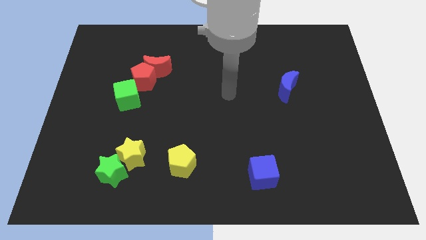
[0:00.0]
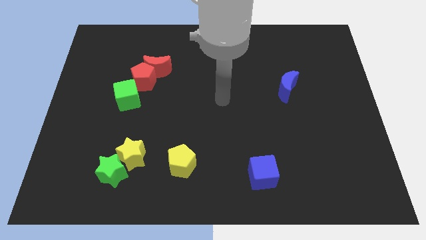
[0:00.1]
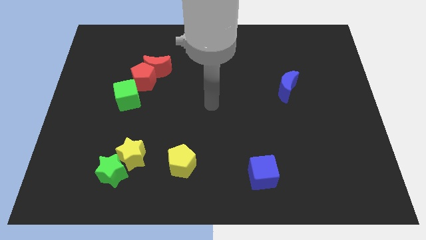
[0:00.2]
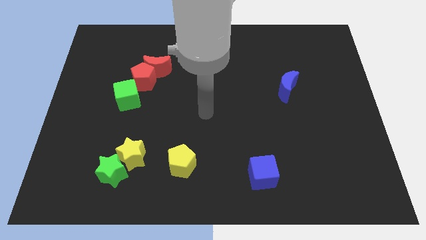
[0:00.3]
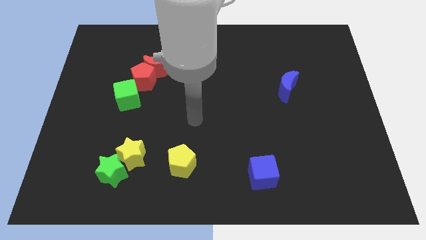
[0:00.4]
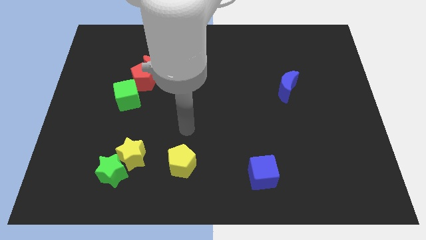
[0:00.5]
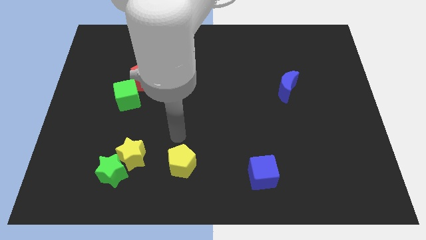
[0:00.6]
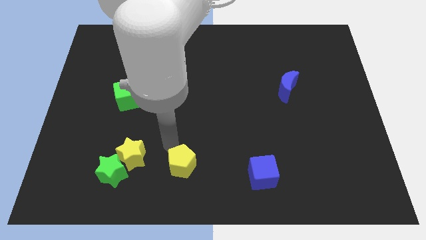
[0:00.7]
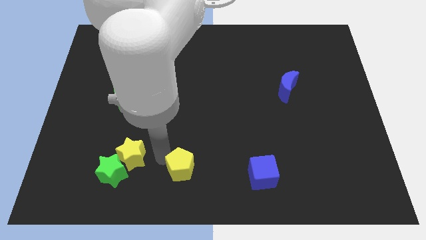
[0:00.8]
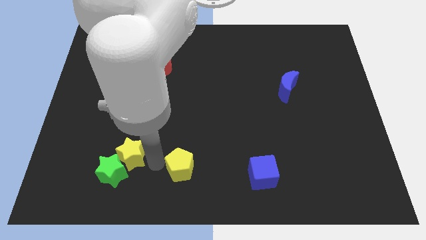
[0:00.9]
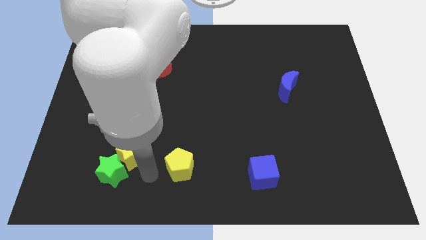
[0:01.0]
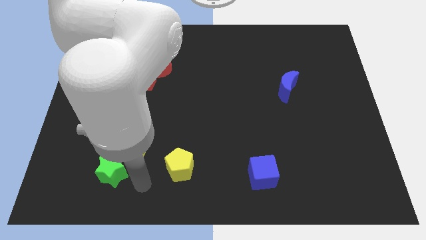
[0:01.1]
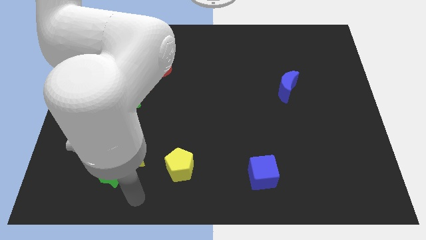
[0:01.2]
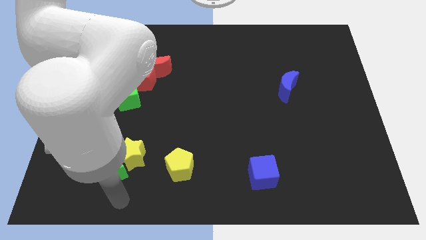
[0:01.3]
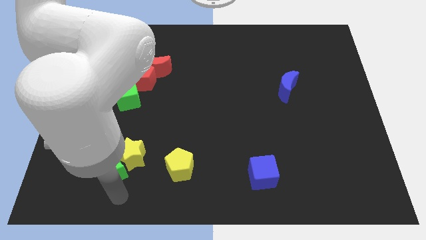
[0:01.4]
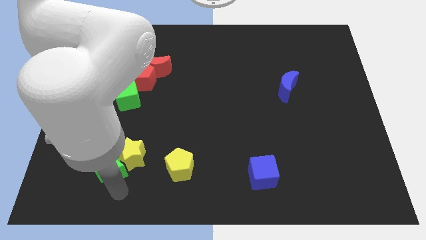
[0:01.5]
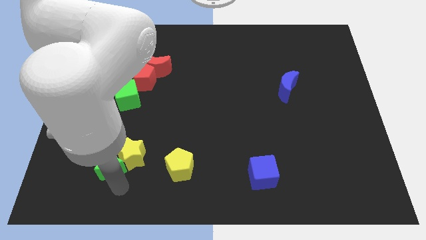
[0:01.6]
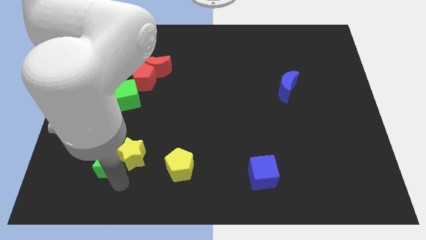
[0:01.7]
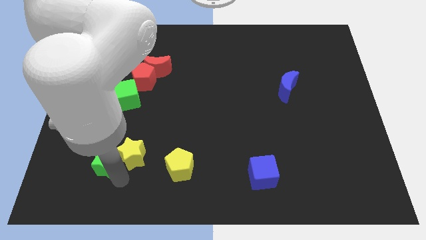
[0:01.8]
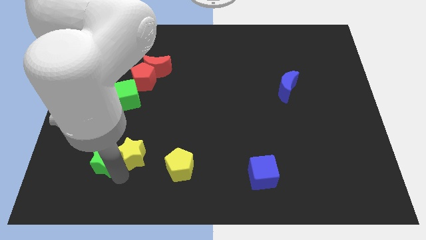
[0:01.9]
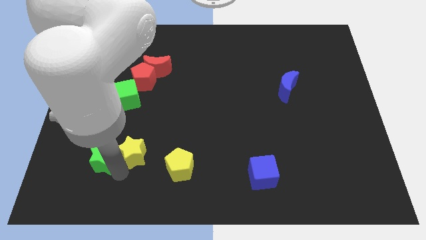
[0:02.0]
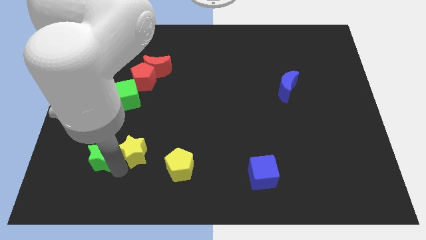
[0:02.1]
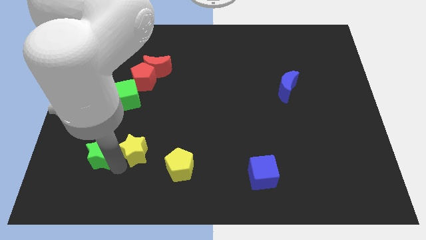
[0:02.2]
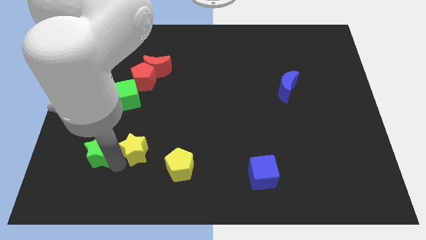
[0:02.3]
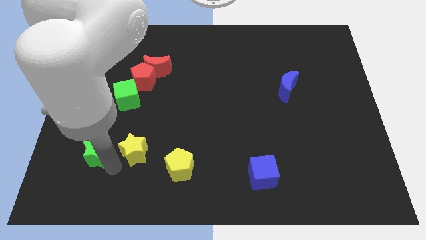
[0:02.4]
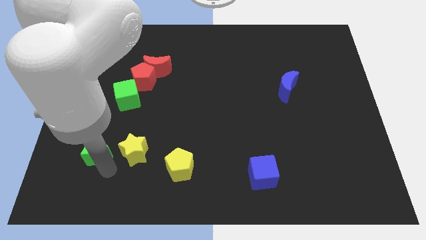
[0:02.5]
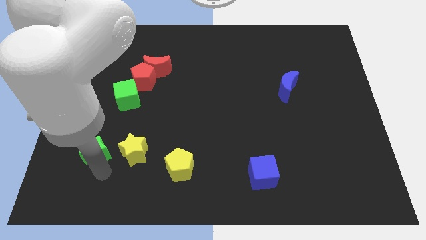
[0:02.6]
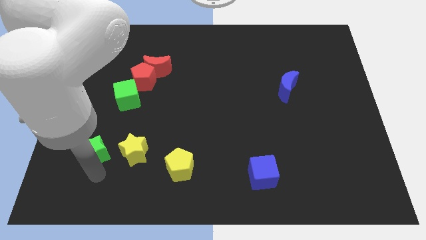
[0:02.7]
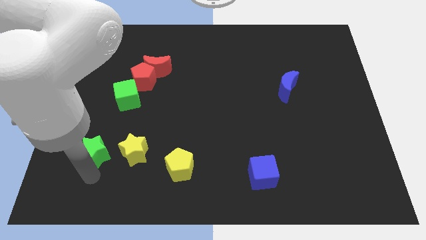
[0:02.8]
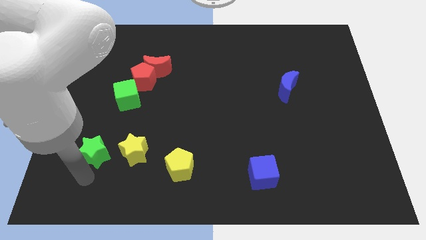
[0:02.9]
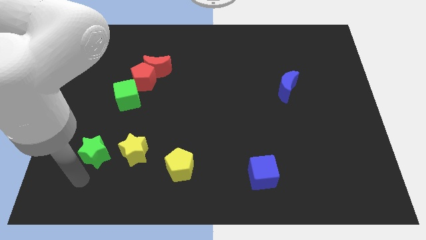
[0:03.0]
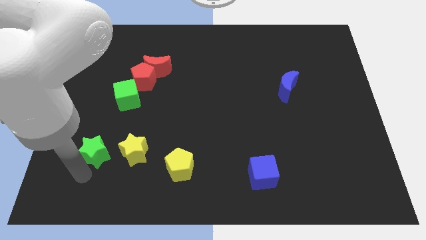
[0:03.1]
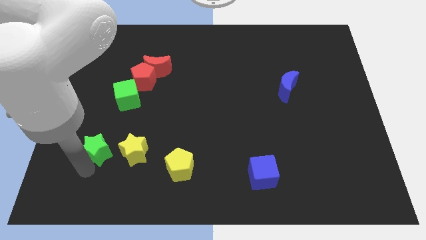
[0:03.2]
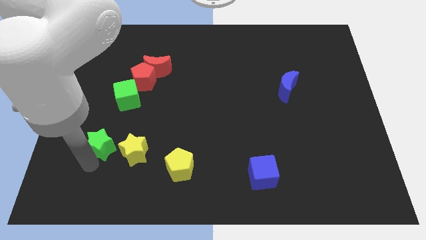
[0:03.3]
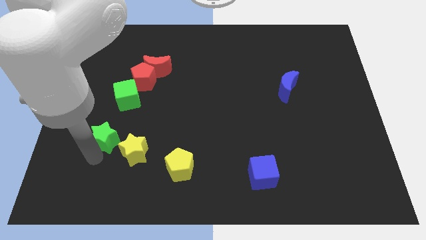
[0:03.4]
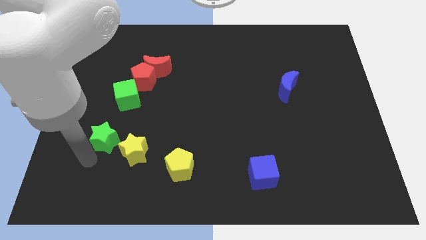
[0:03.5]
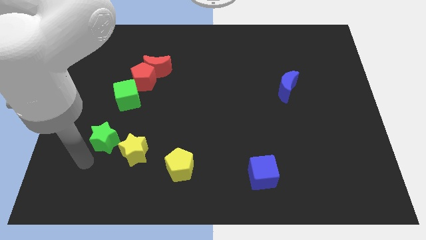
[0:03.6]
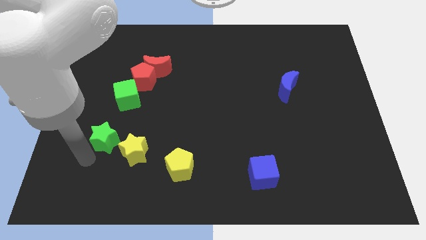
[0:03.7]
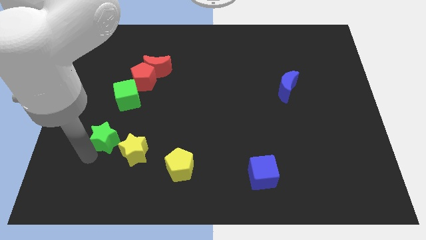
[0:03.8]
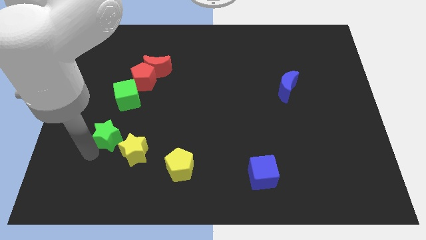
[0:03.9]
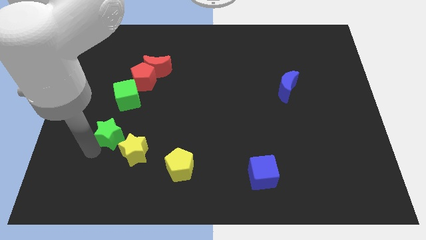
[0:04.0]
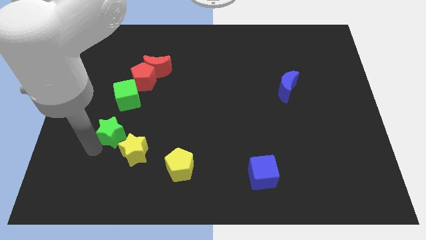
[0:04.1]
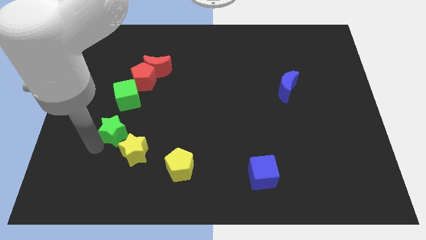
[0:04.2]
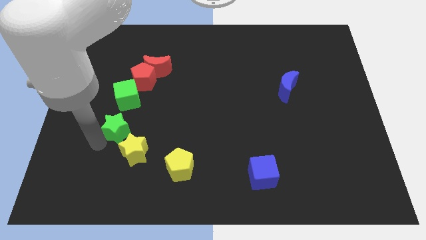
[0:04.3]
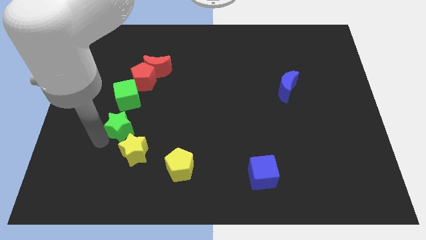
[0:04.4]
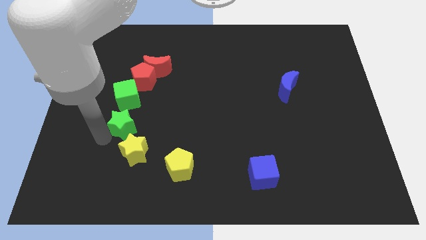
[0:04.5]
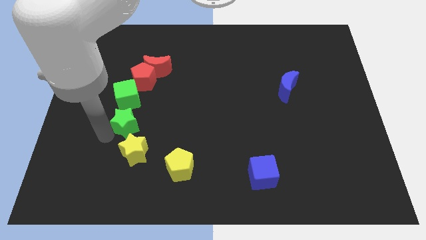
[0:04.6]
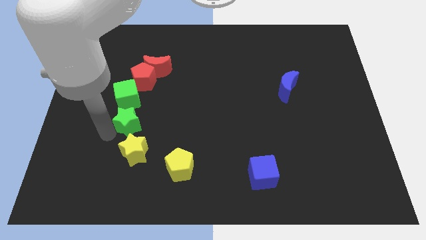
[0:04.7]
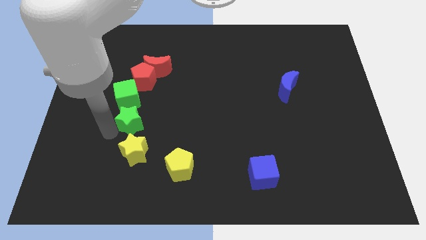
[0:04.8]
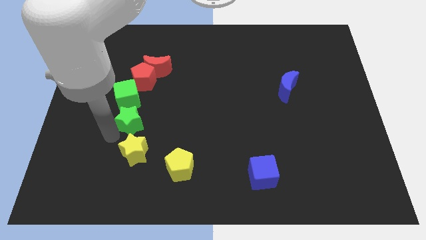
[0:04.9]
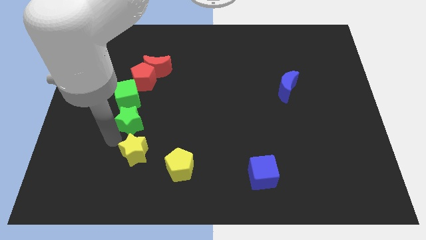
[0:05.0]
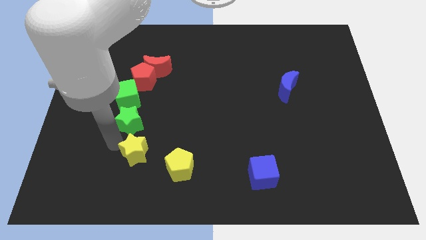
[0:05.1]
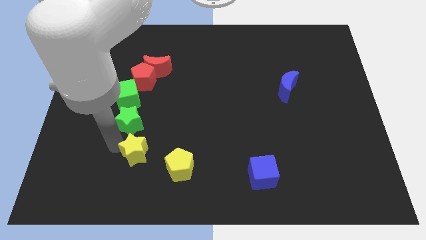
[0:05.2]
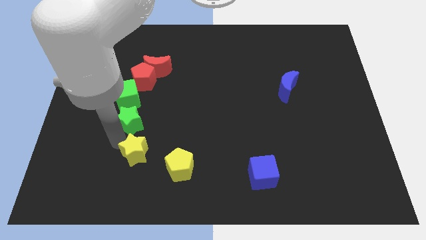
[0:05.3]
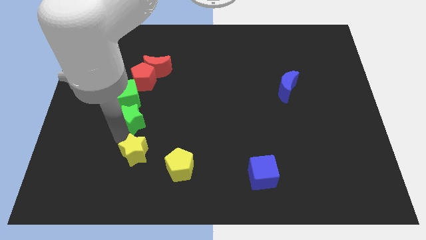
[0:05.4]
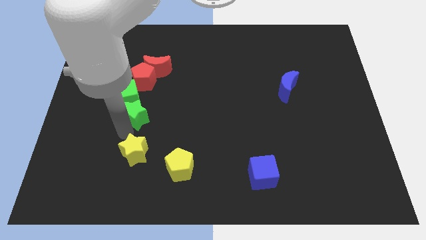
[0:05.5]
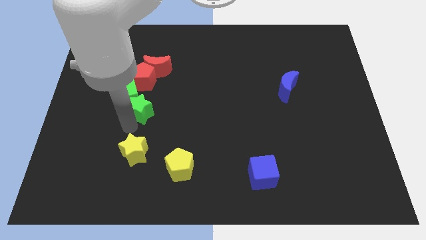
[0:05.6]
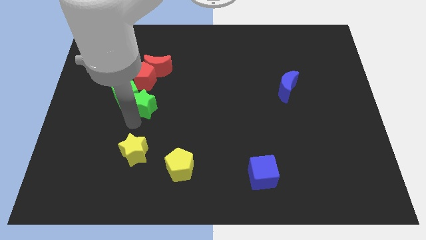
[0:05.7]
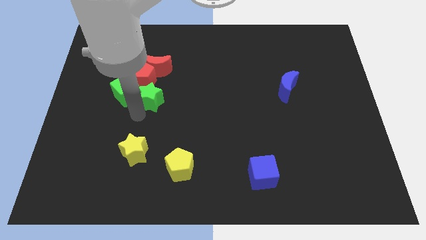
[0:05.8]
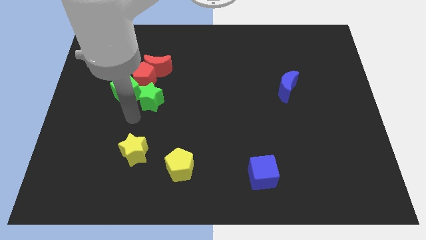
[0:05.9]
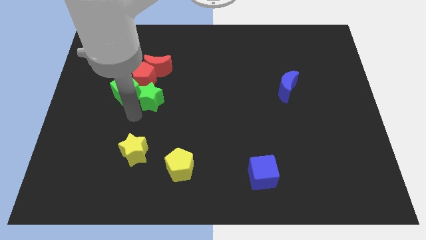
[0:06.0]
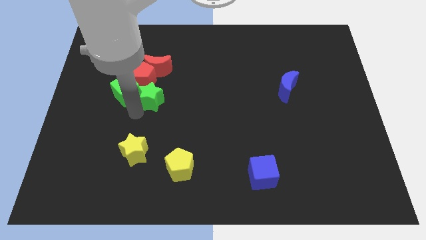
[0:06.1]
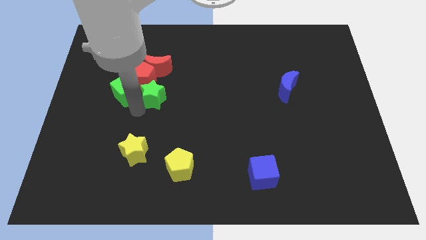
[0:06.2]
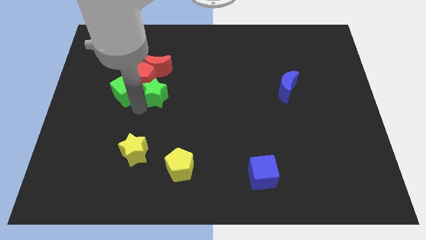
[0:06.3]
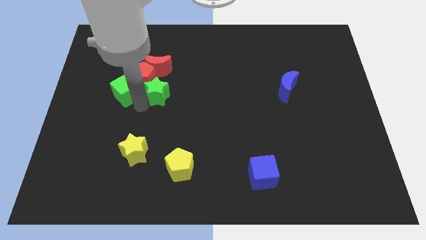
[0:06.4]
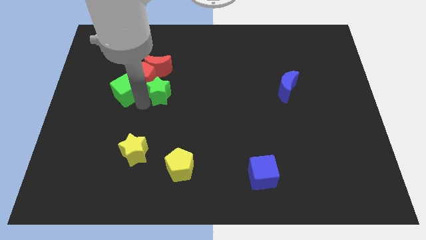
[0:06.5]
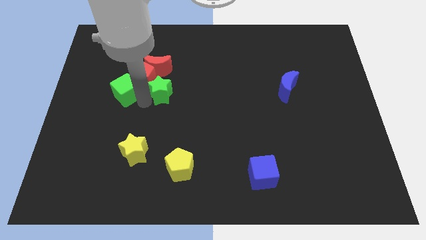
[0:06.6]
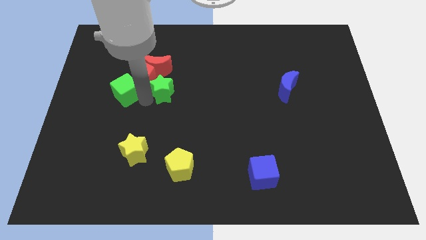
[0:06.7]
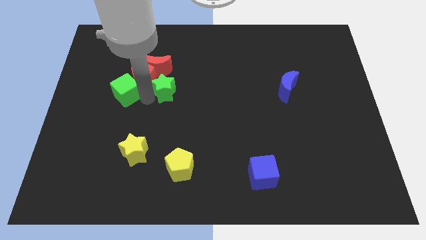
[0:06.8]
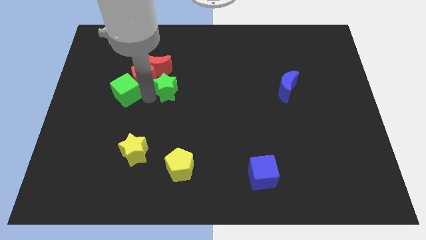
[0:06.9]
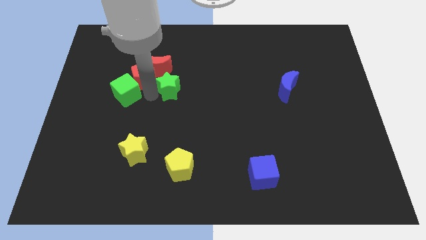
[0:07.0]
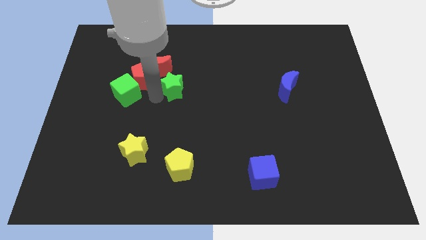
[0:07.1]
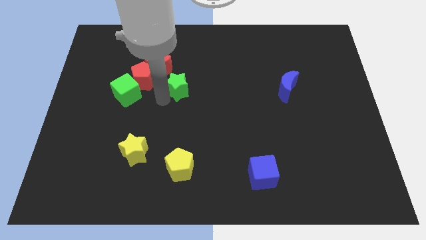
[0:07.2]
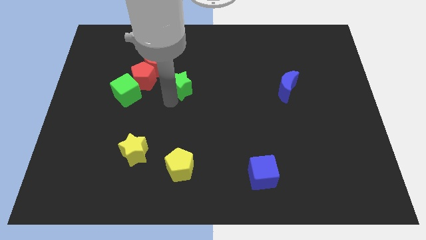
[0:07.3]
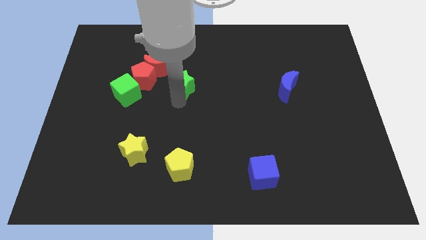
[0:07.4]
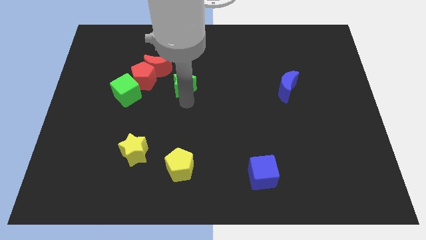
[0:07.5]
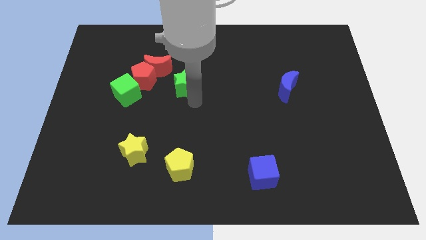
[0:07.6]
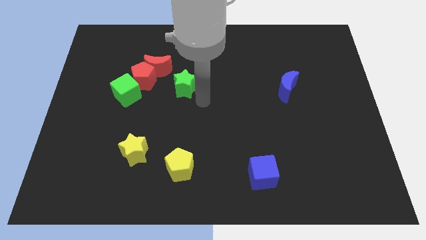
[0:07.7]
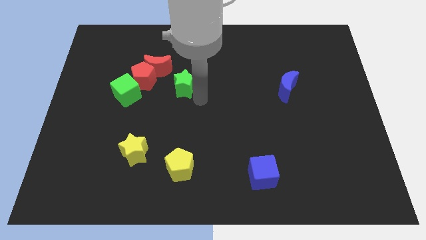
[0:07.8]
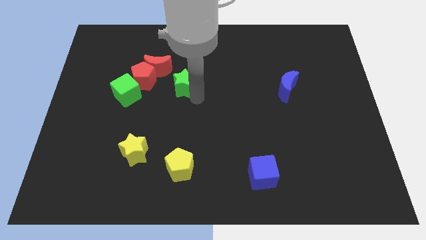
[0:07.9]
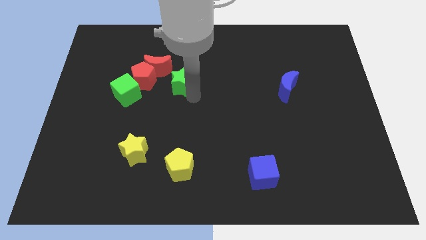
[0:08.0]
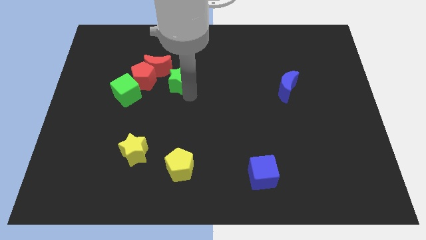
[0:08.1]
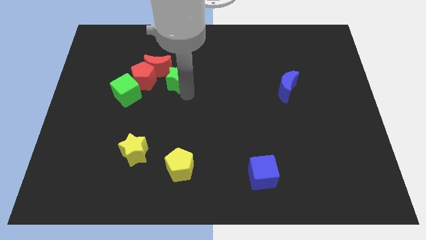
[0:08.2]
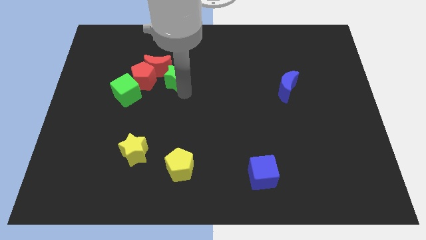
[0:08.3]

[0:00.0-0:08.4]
put the green star next to the red moon
